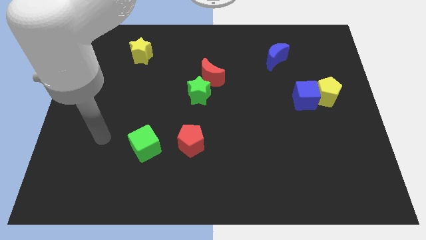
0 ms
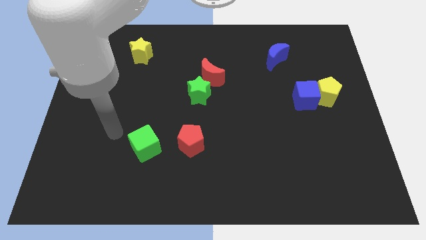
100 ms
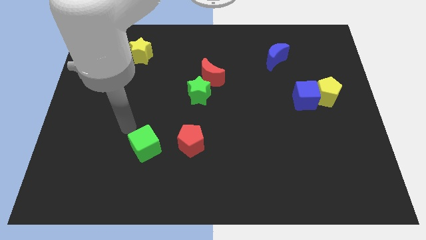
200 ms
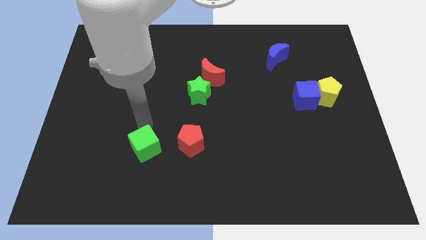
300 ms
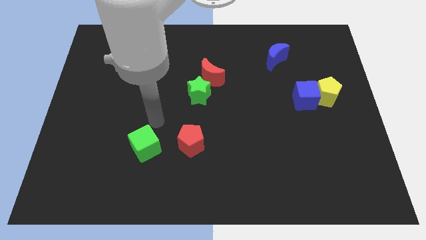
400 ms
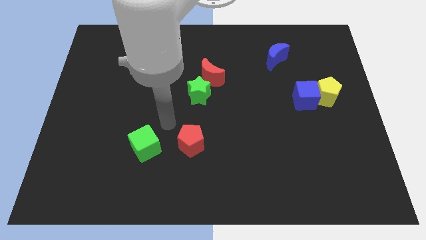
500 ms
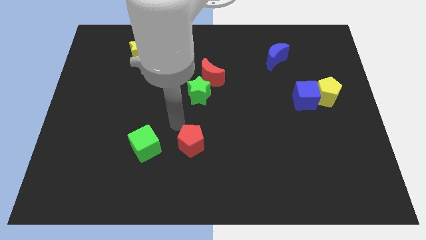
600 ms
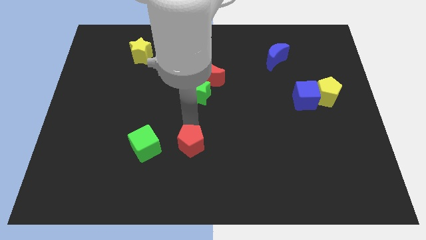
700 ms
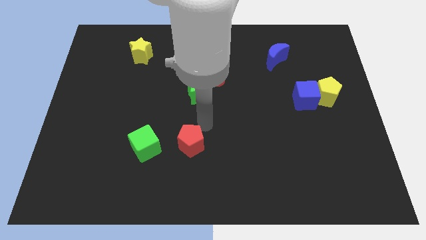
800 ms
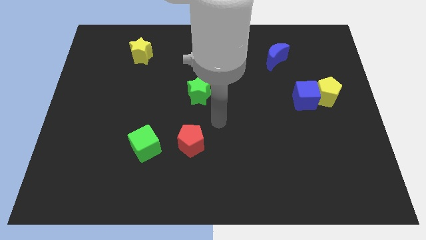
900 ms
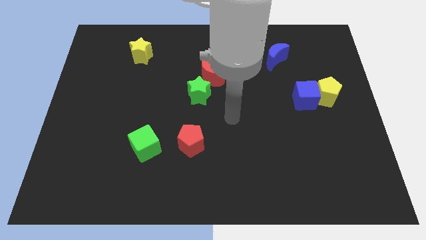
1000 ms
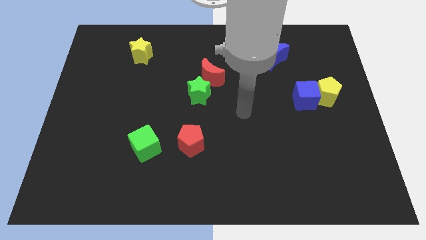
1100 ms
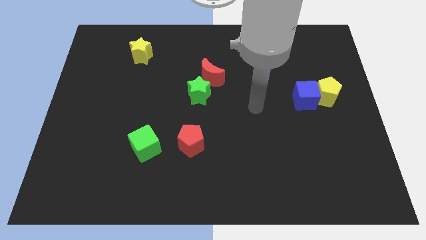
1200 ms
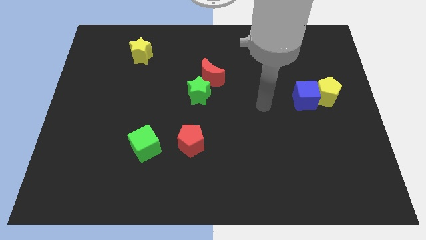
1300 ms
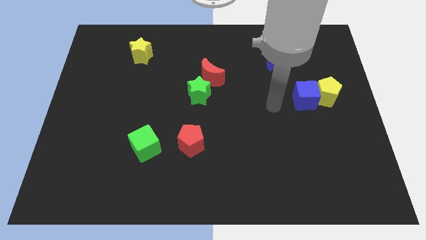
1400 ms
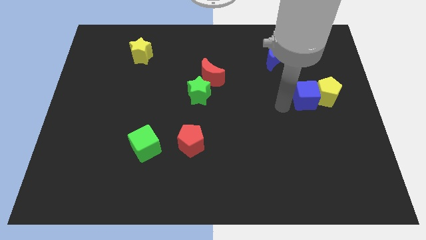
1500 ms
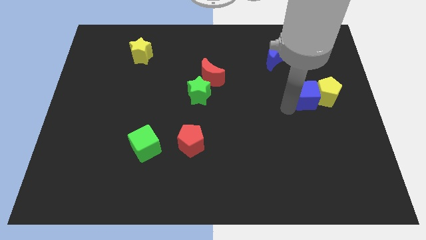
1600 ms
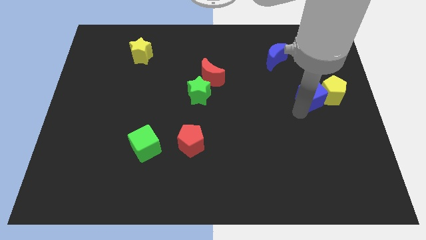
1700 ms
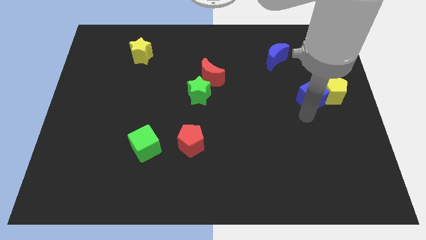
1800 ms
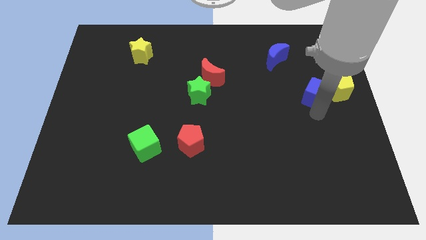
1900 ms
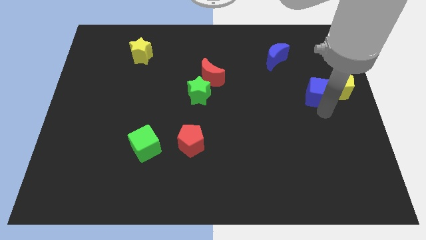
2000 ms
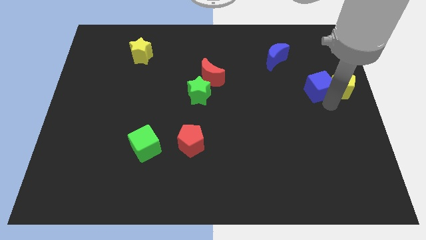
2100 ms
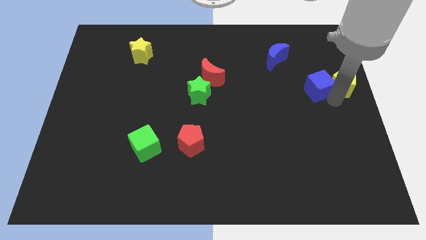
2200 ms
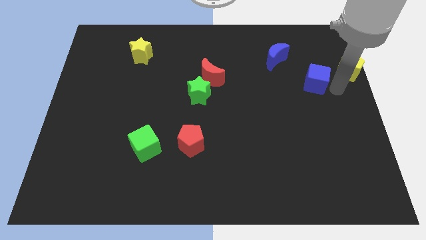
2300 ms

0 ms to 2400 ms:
pull the blue cube apart from the yellow pentagon

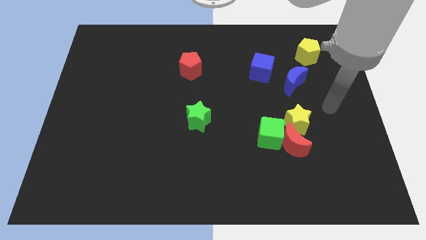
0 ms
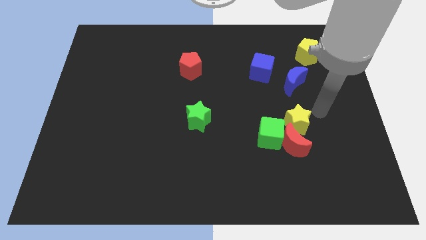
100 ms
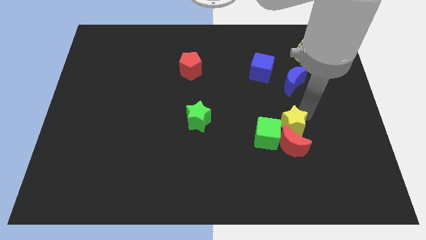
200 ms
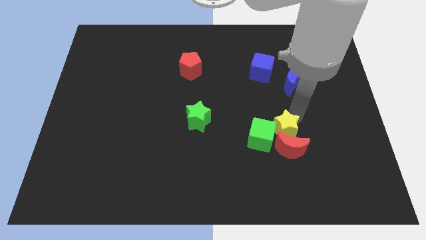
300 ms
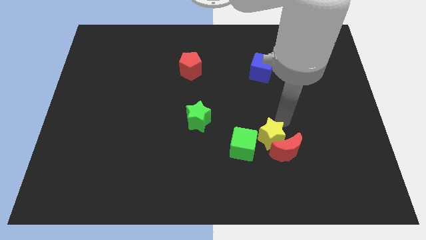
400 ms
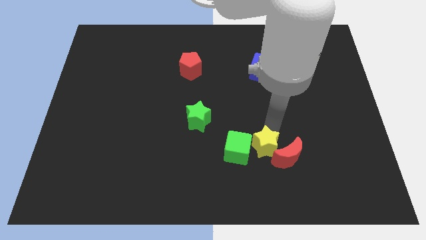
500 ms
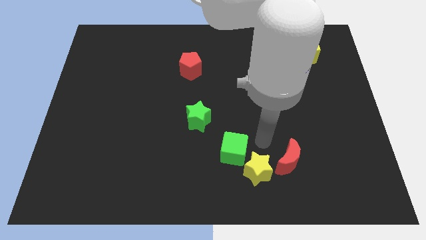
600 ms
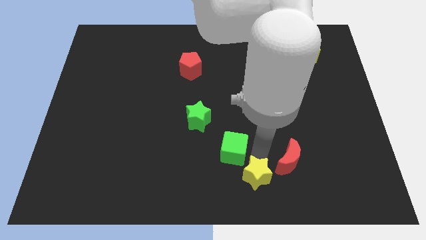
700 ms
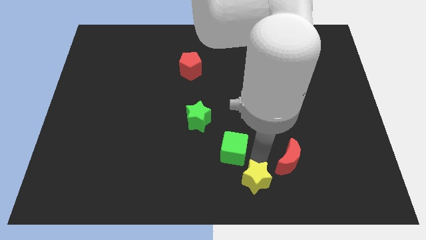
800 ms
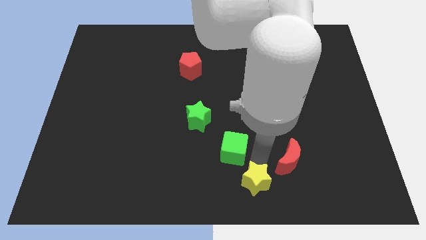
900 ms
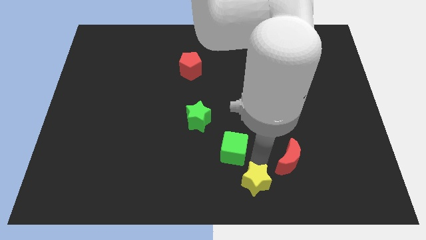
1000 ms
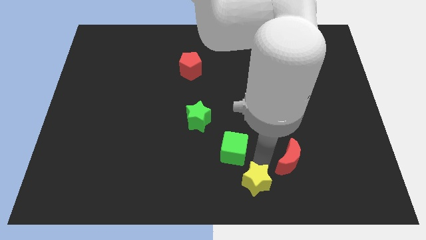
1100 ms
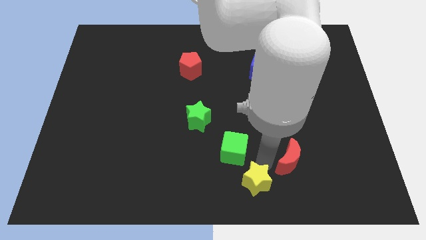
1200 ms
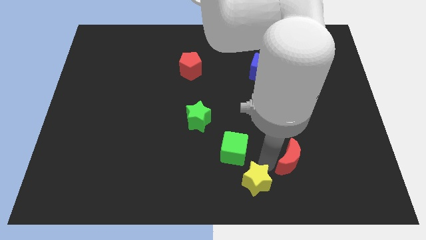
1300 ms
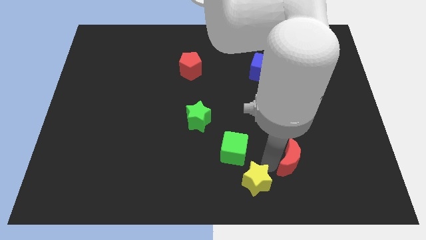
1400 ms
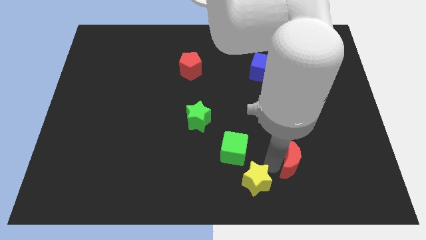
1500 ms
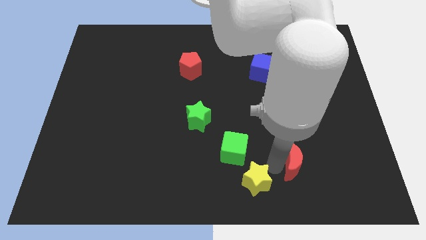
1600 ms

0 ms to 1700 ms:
move the red moon away from the green cube and yellow star

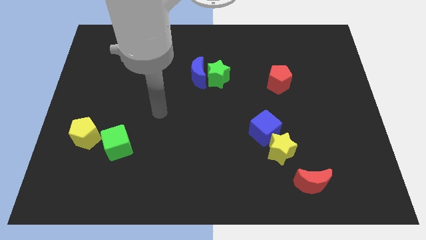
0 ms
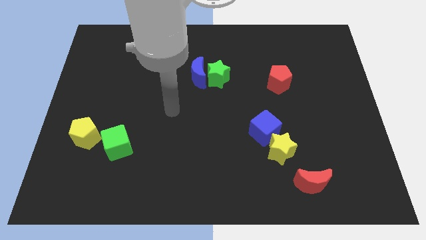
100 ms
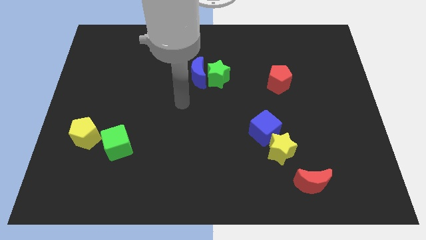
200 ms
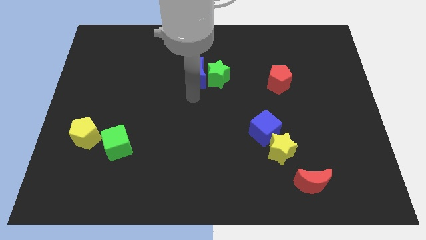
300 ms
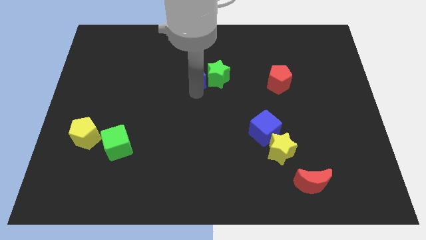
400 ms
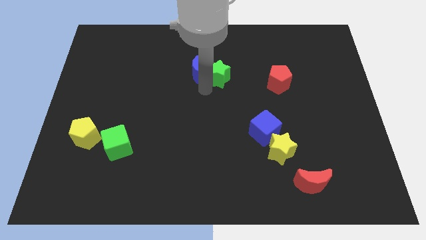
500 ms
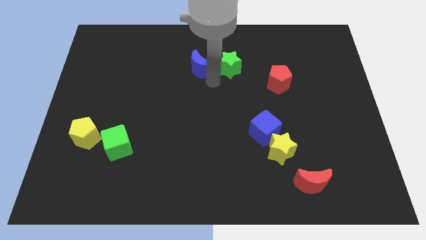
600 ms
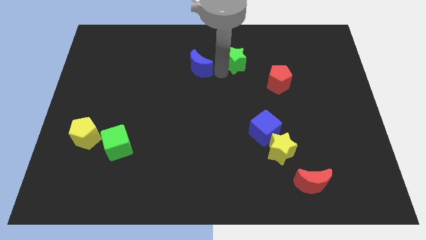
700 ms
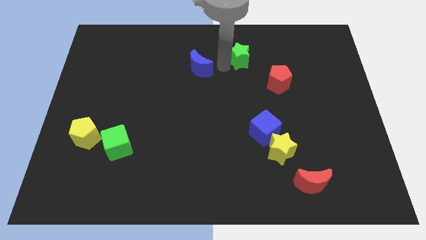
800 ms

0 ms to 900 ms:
move the blue moon away from the green star

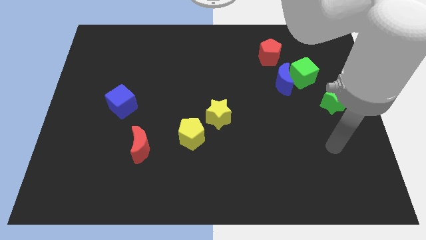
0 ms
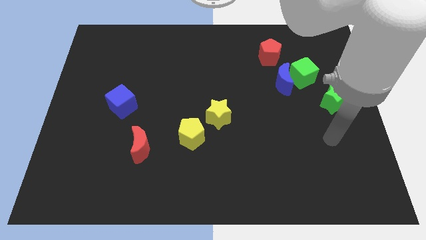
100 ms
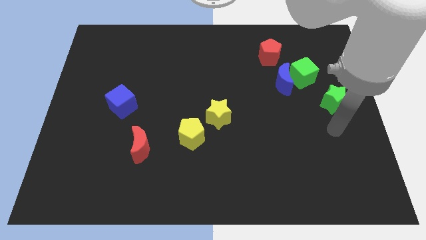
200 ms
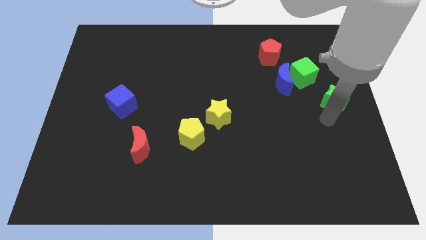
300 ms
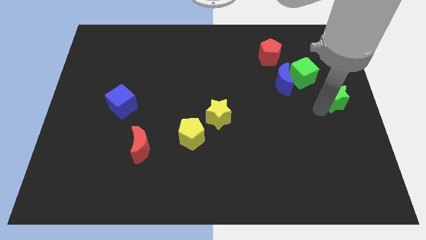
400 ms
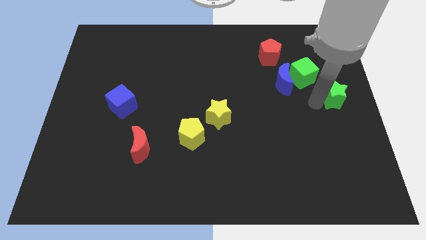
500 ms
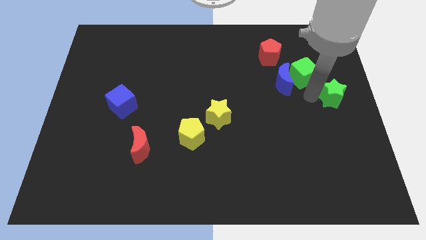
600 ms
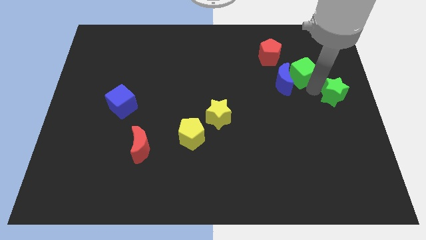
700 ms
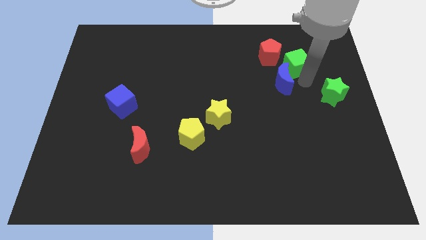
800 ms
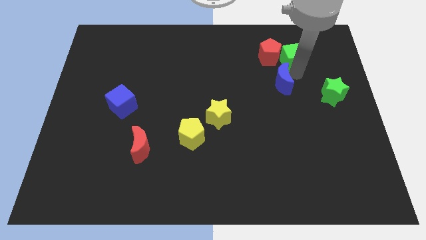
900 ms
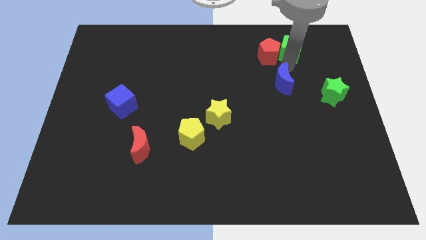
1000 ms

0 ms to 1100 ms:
pull the blue moon apart from the green cube and red pentagon

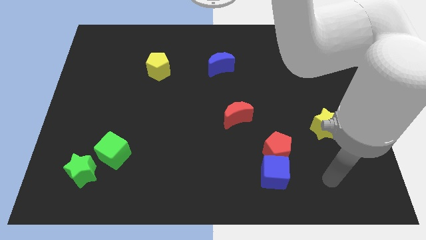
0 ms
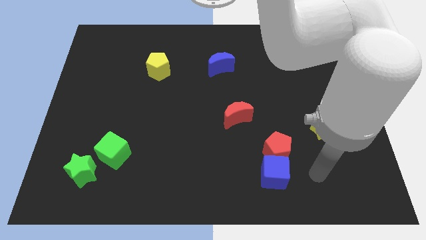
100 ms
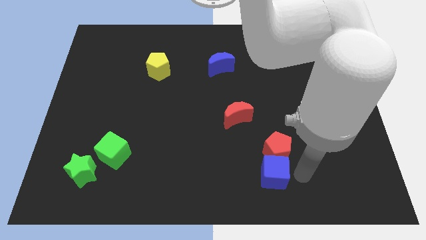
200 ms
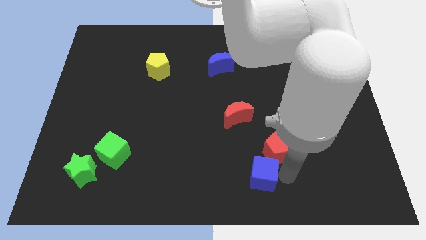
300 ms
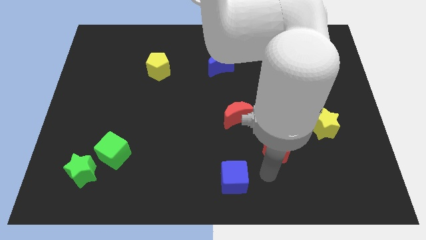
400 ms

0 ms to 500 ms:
separate the red pentagon from the blue cube

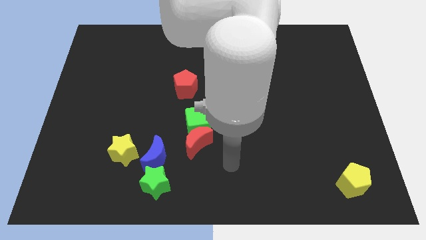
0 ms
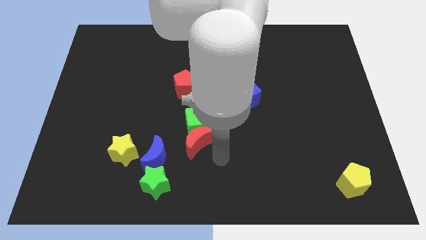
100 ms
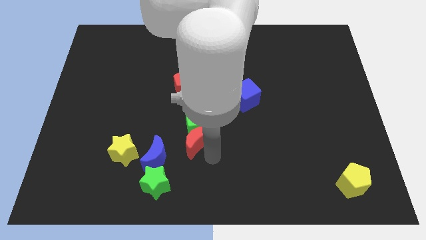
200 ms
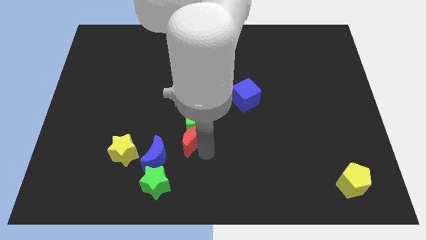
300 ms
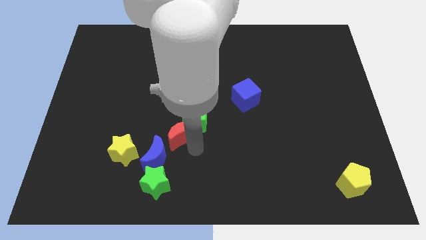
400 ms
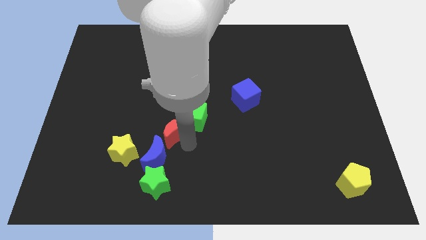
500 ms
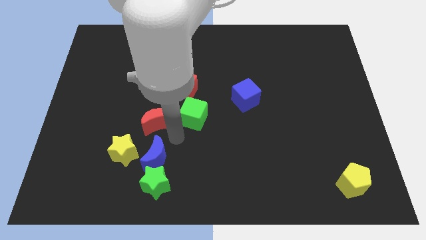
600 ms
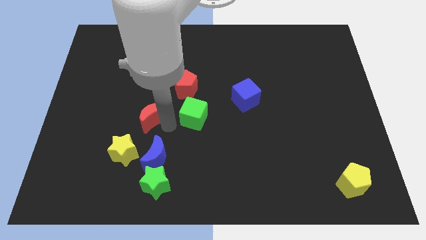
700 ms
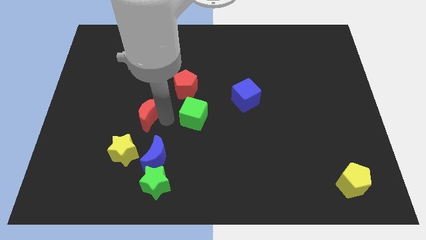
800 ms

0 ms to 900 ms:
pull the green cube apart from the red moon

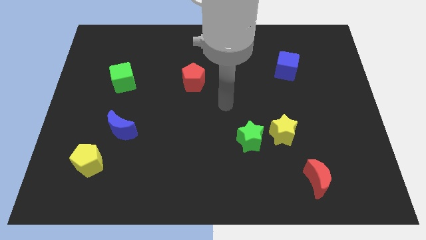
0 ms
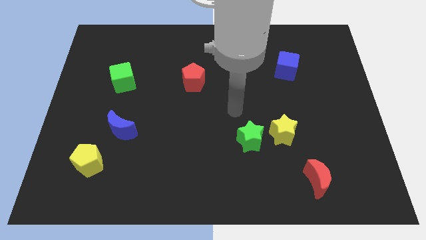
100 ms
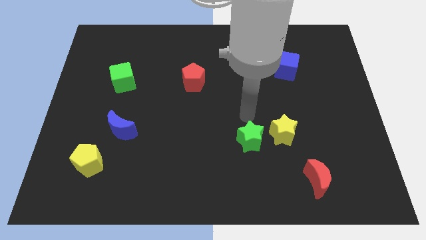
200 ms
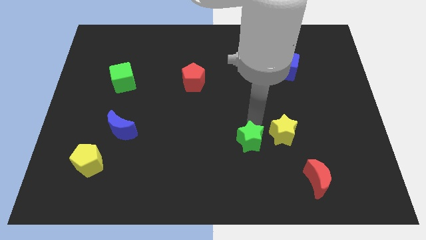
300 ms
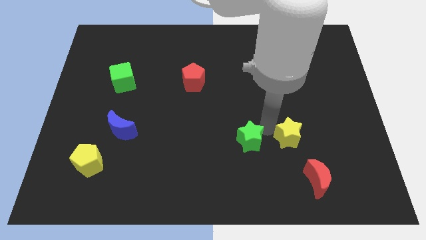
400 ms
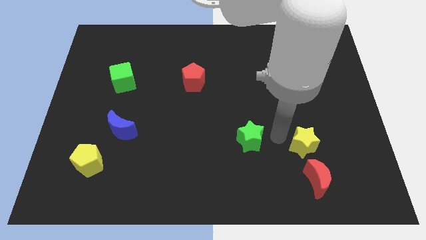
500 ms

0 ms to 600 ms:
separate the green star from the yellow star

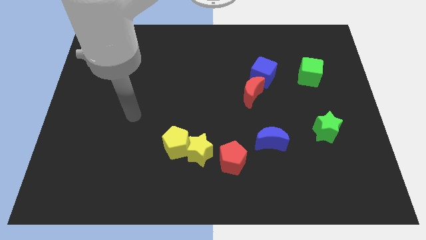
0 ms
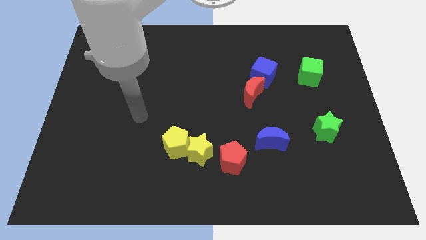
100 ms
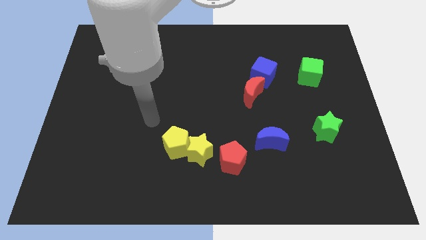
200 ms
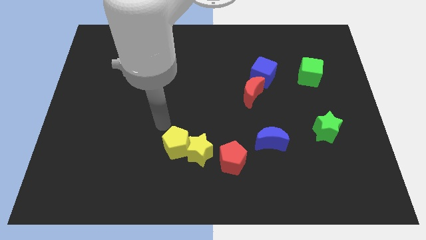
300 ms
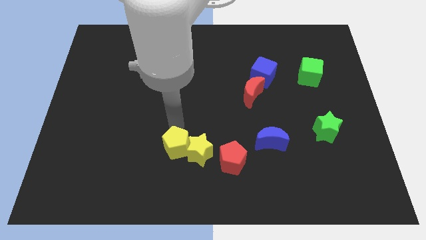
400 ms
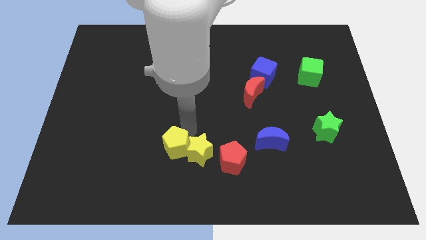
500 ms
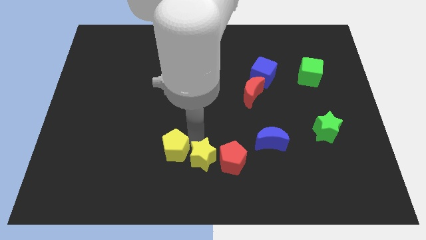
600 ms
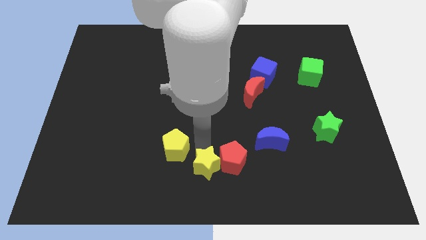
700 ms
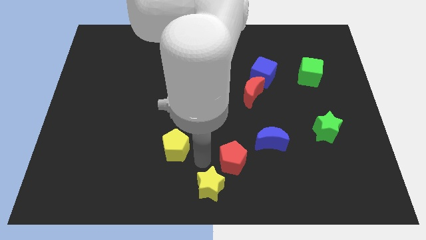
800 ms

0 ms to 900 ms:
move the yellow pentagon away from the yellow star

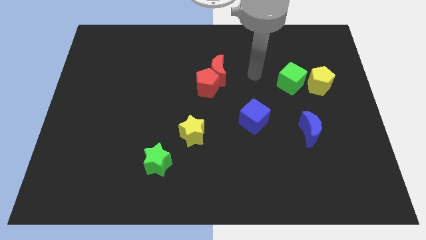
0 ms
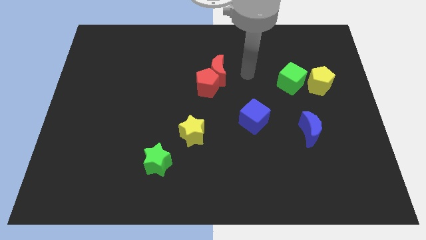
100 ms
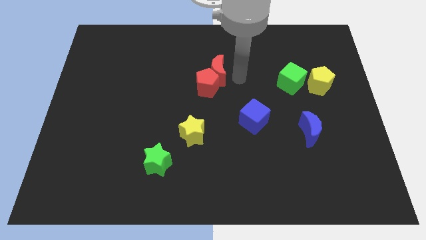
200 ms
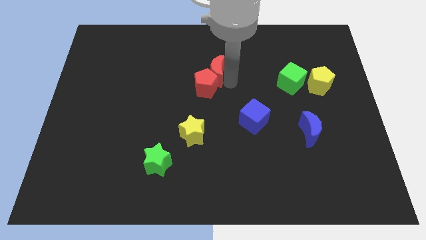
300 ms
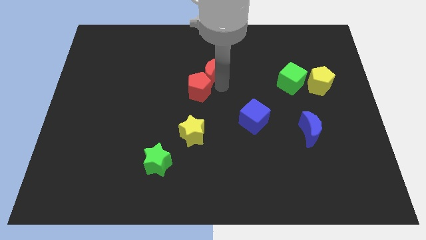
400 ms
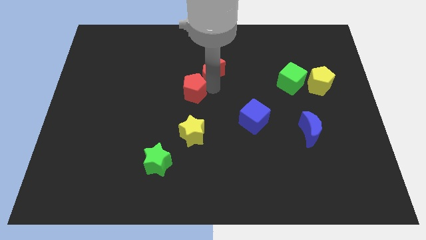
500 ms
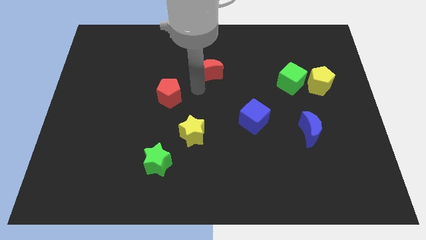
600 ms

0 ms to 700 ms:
separate the red moon from the red pentagon
